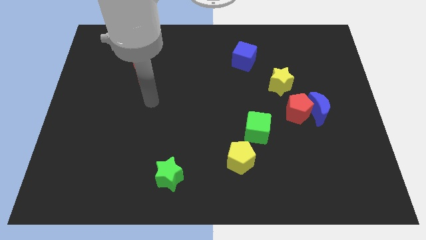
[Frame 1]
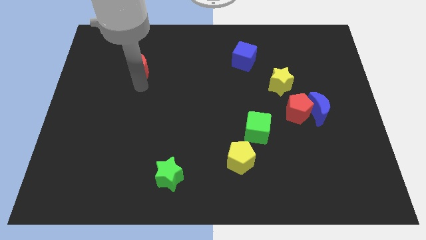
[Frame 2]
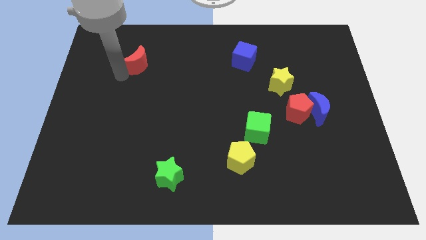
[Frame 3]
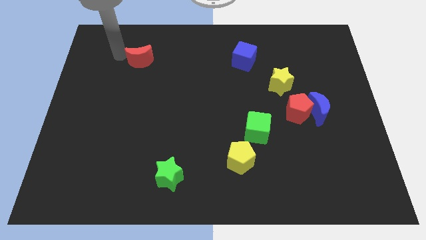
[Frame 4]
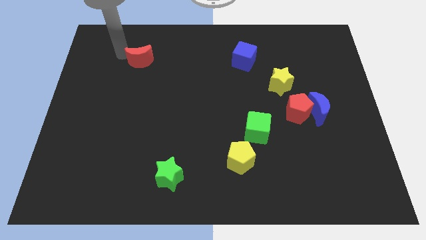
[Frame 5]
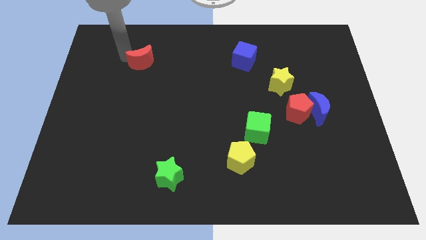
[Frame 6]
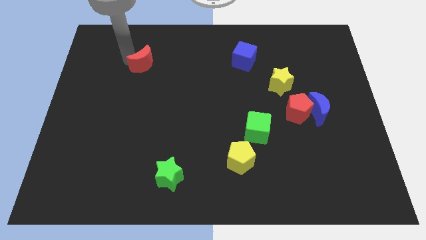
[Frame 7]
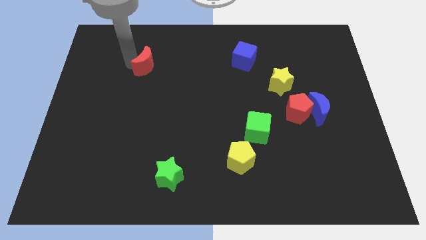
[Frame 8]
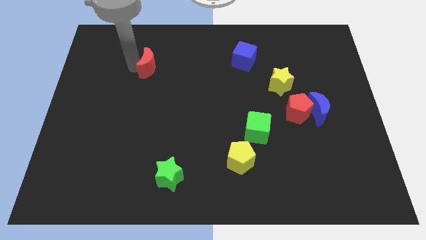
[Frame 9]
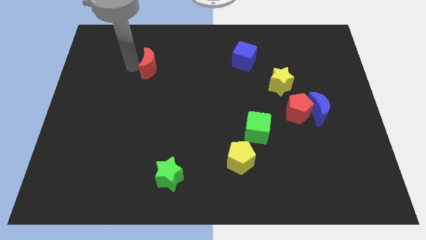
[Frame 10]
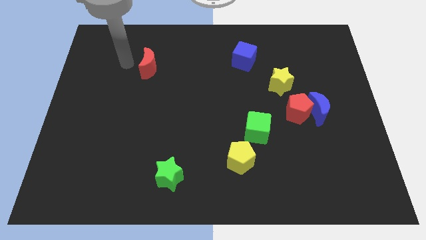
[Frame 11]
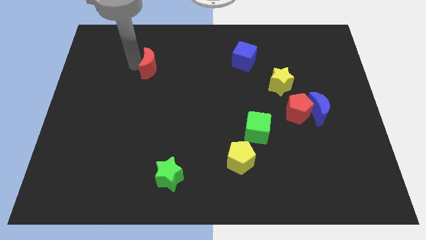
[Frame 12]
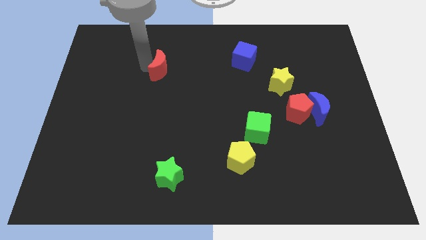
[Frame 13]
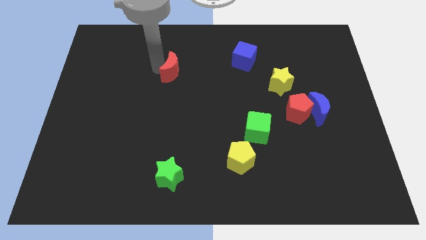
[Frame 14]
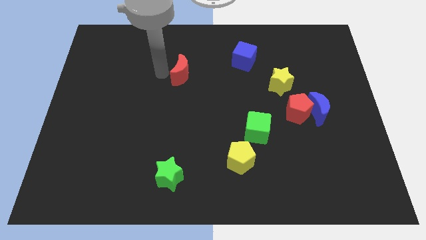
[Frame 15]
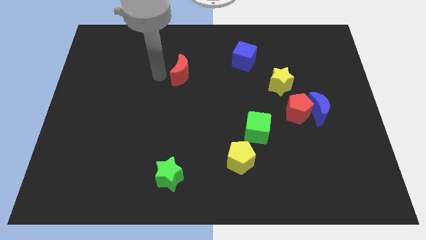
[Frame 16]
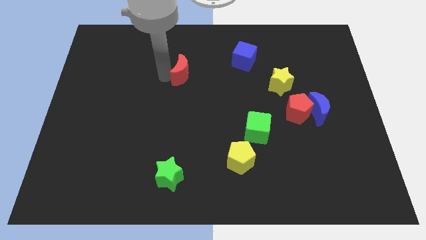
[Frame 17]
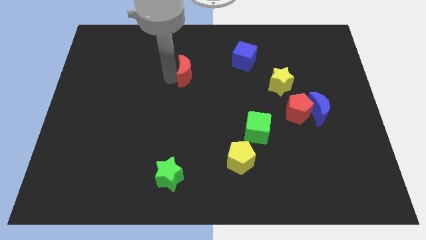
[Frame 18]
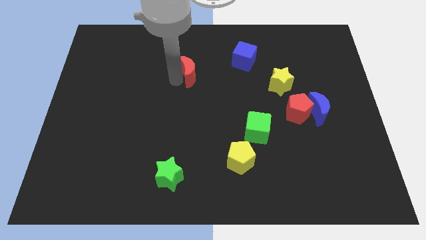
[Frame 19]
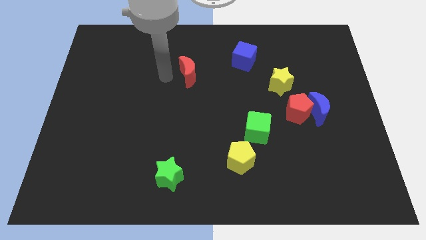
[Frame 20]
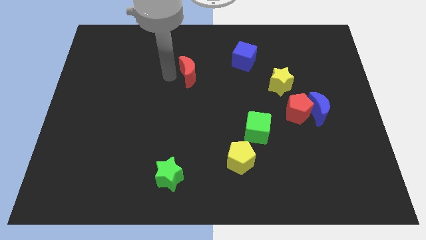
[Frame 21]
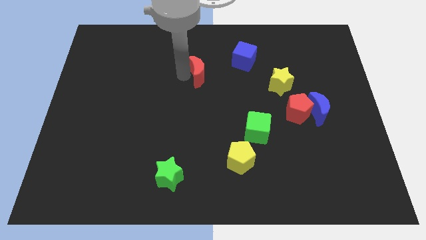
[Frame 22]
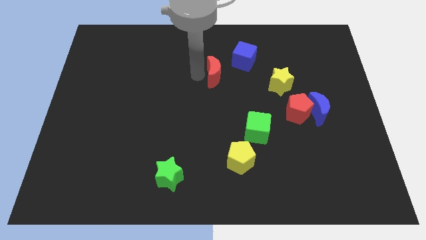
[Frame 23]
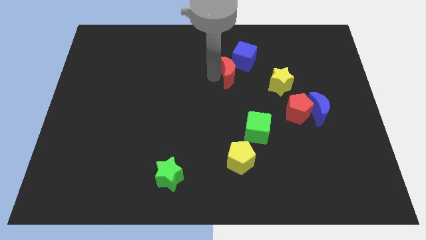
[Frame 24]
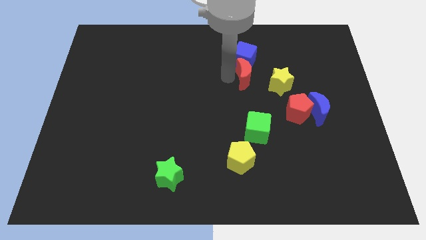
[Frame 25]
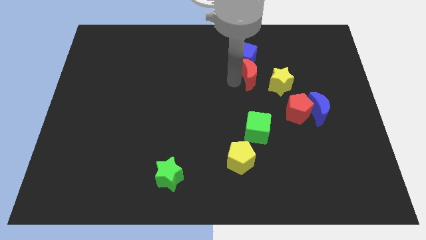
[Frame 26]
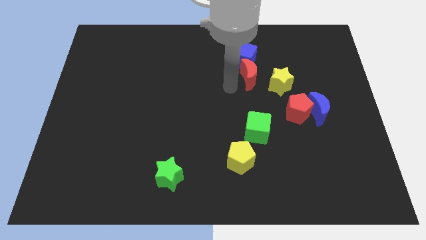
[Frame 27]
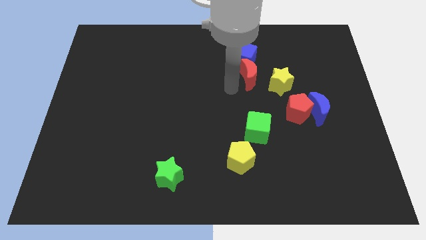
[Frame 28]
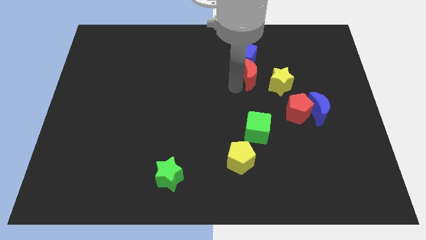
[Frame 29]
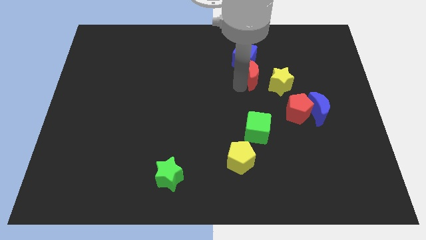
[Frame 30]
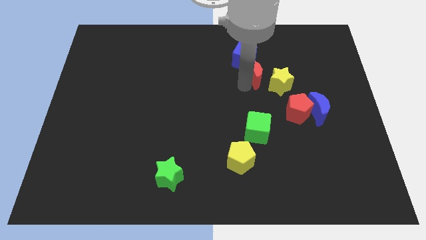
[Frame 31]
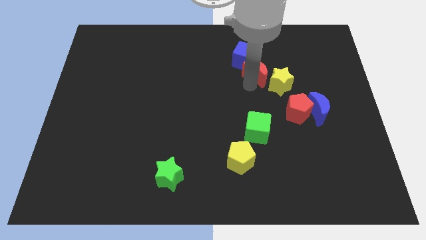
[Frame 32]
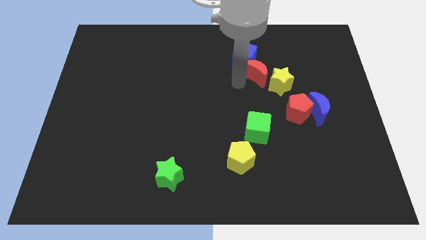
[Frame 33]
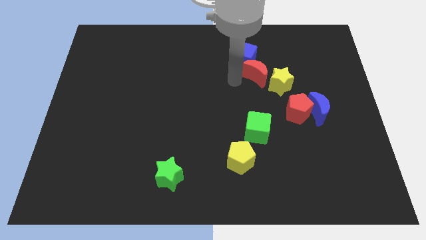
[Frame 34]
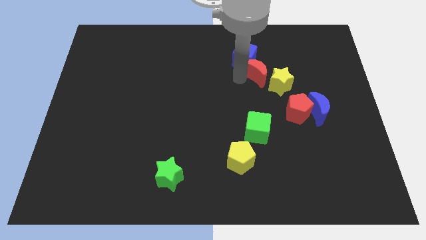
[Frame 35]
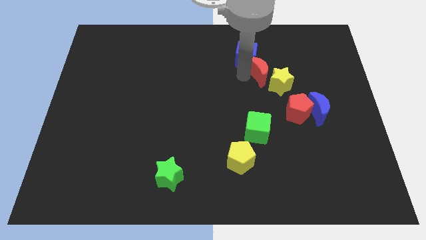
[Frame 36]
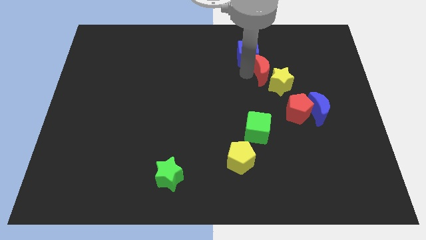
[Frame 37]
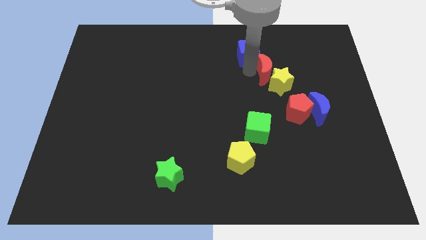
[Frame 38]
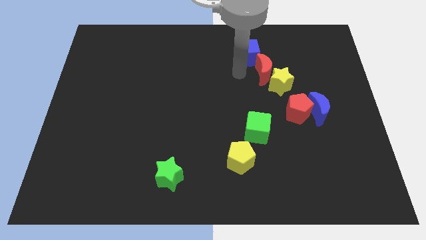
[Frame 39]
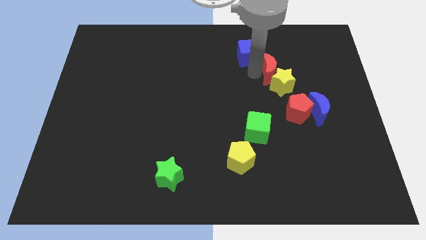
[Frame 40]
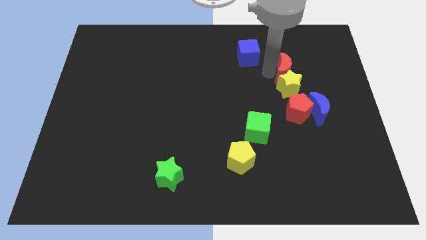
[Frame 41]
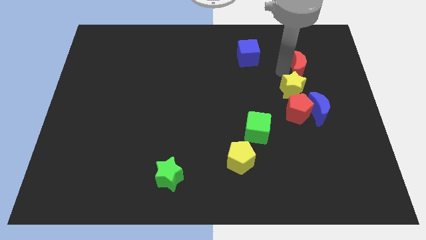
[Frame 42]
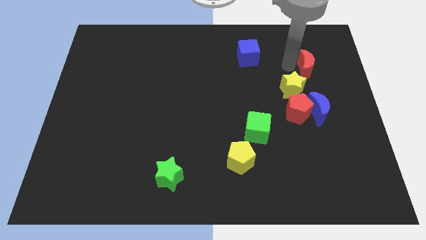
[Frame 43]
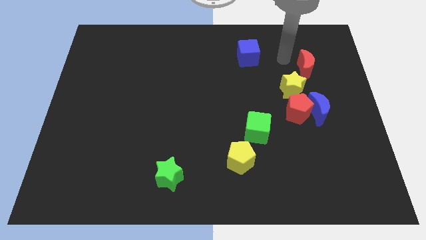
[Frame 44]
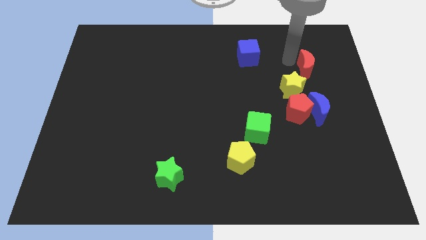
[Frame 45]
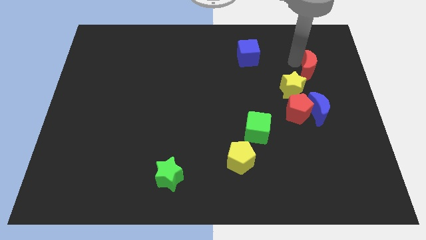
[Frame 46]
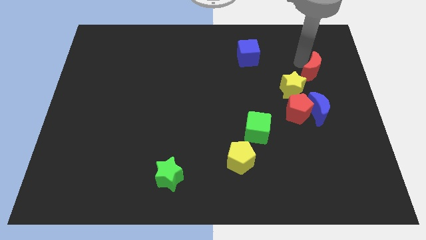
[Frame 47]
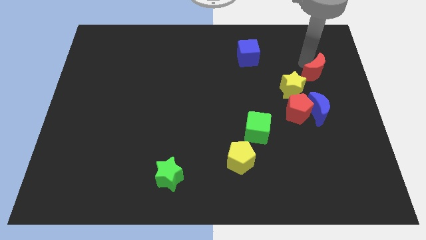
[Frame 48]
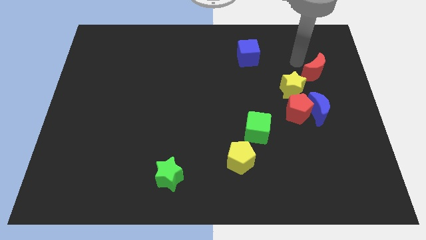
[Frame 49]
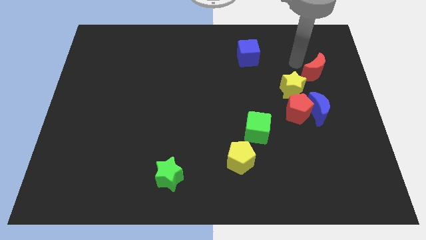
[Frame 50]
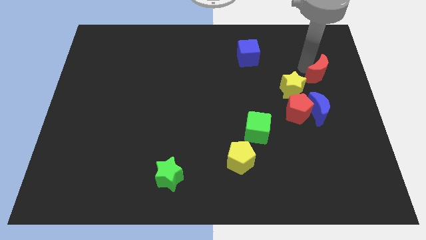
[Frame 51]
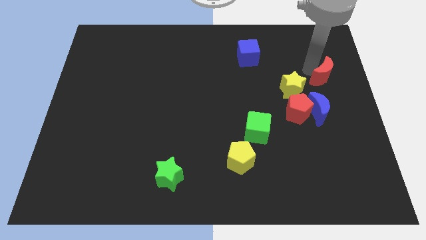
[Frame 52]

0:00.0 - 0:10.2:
move the red moon to the center right

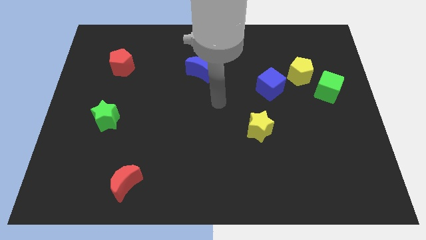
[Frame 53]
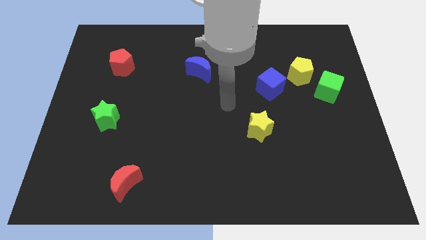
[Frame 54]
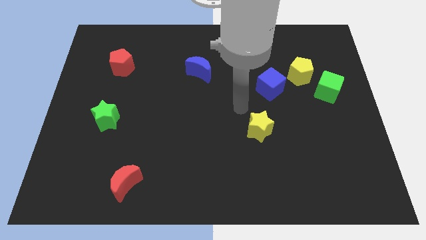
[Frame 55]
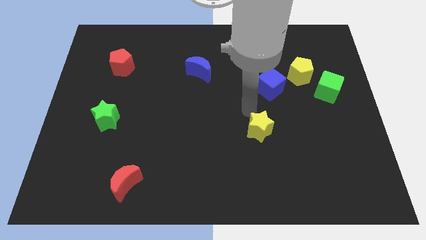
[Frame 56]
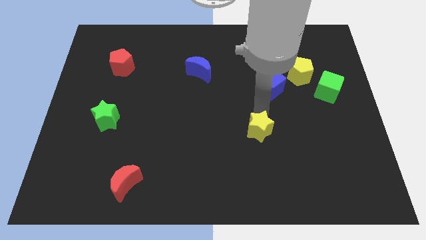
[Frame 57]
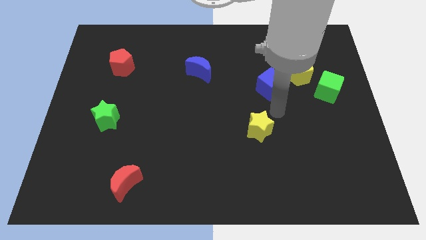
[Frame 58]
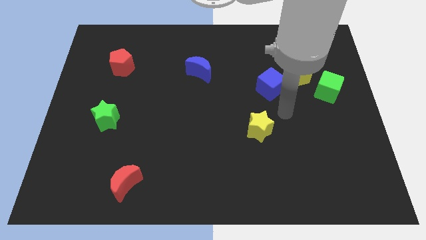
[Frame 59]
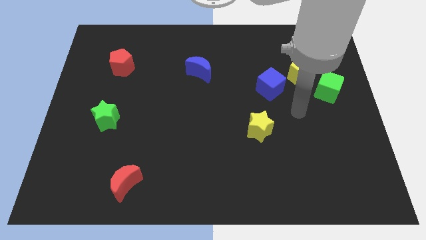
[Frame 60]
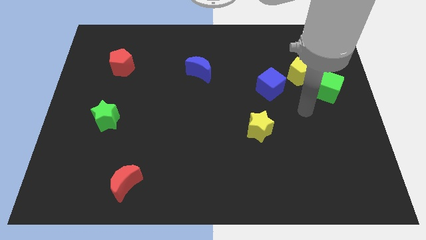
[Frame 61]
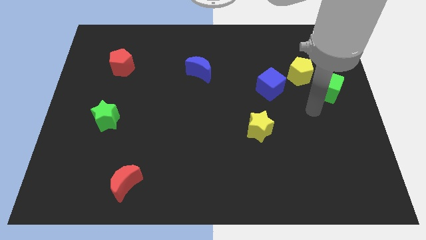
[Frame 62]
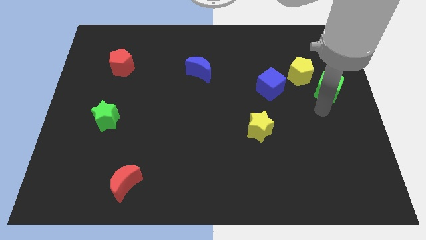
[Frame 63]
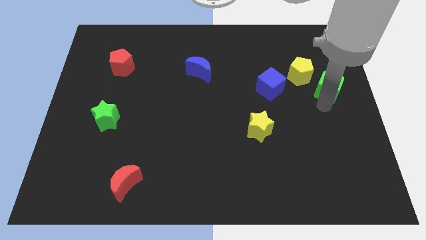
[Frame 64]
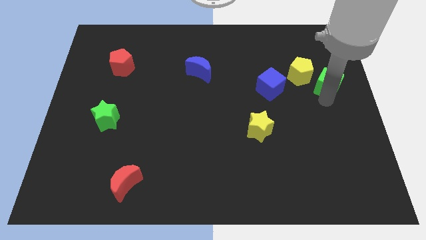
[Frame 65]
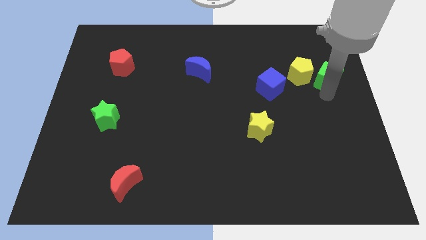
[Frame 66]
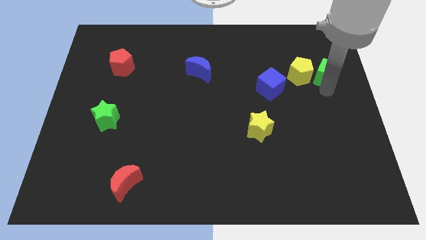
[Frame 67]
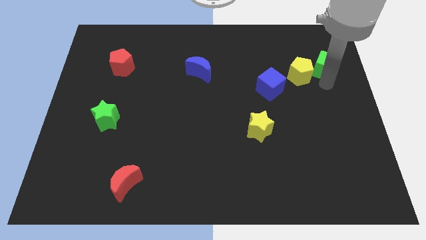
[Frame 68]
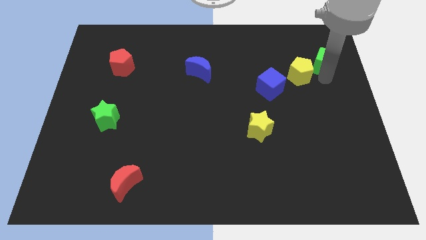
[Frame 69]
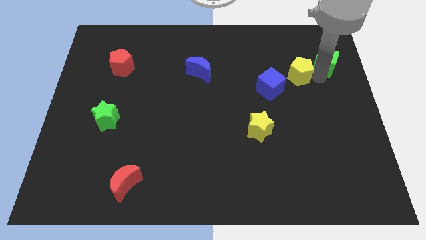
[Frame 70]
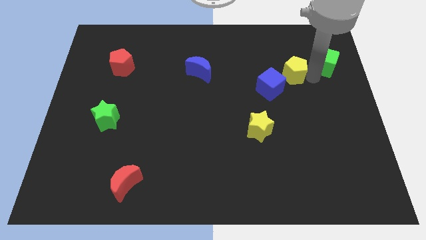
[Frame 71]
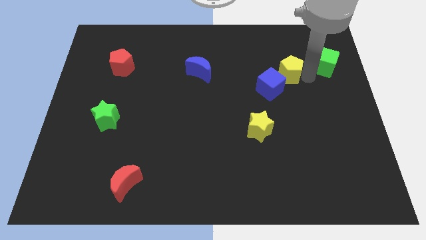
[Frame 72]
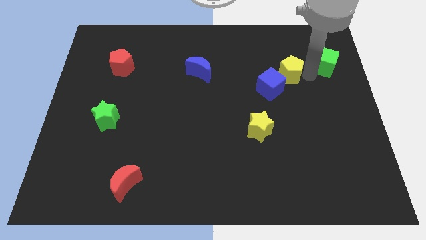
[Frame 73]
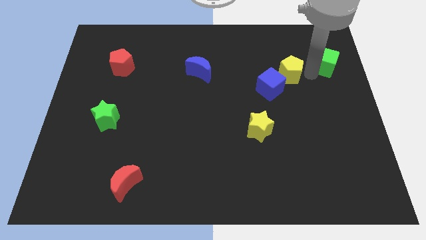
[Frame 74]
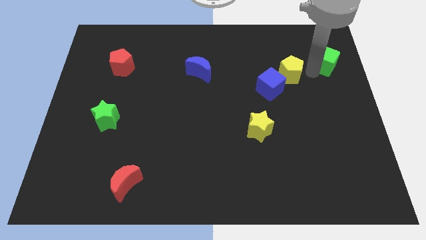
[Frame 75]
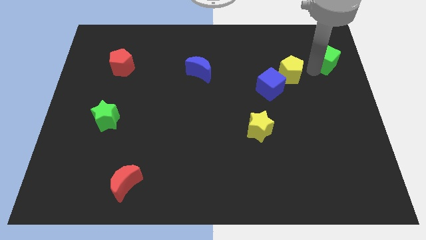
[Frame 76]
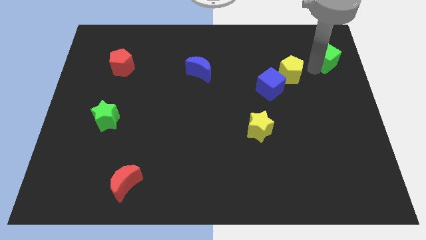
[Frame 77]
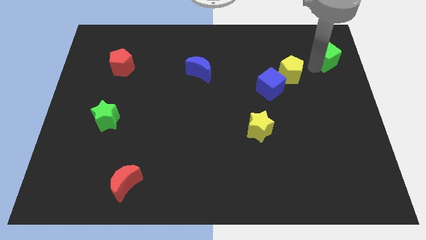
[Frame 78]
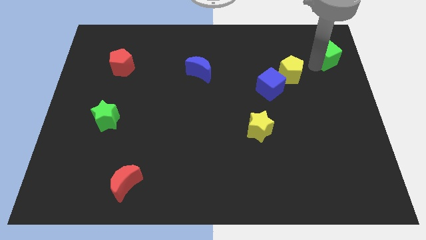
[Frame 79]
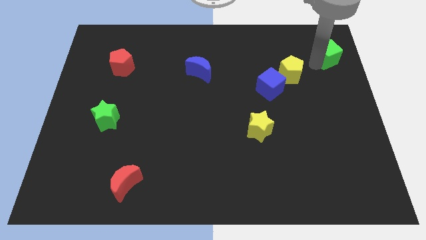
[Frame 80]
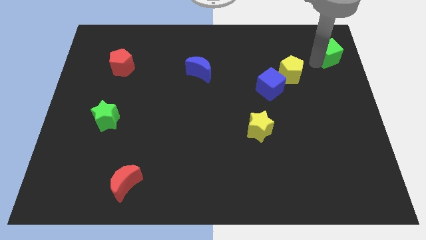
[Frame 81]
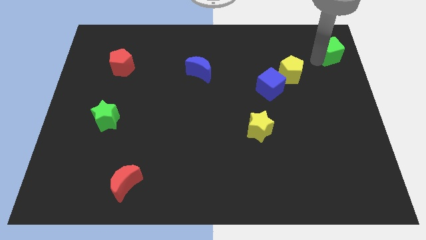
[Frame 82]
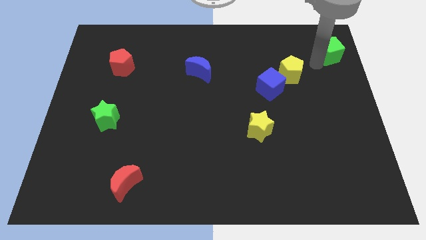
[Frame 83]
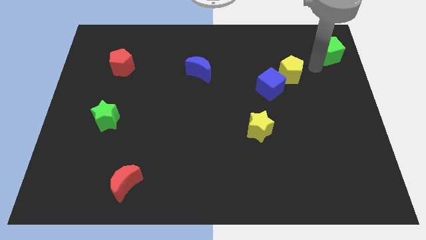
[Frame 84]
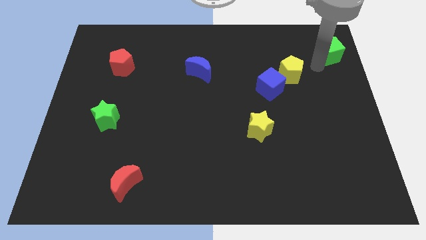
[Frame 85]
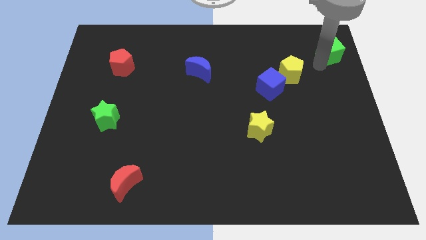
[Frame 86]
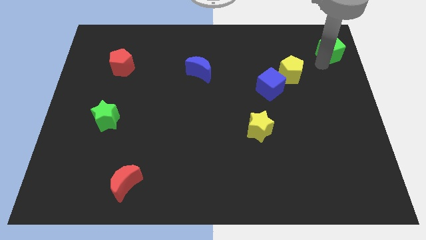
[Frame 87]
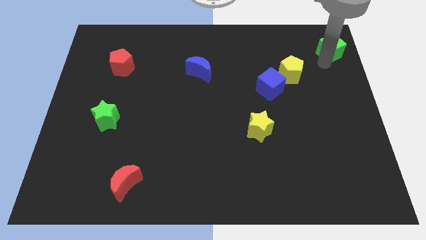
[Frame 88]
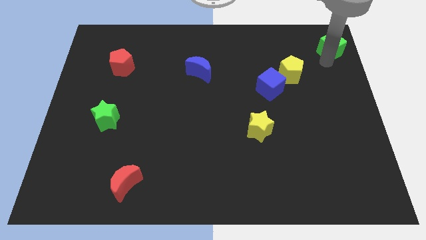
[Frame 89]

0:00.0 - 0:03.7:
put the green cube to the top right corner
